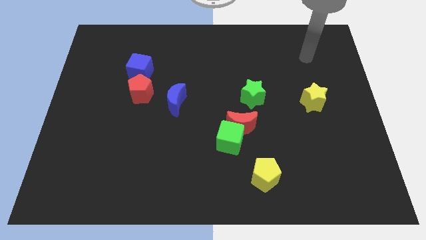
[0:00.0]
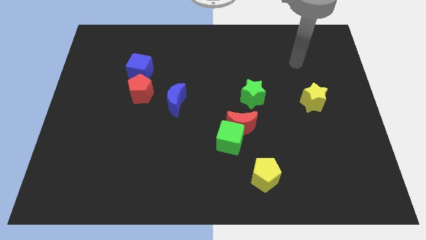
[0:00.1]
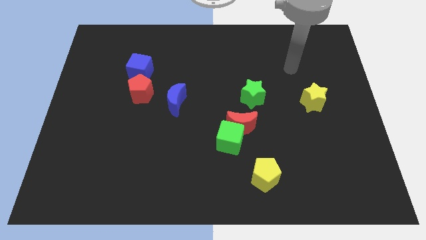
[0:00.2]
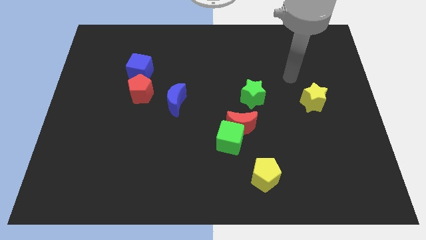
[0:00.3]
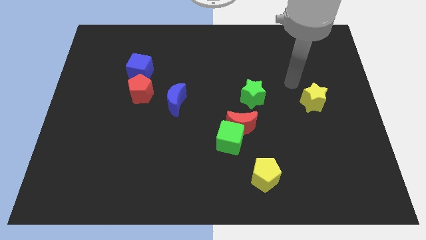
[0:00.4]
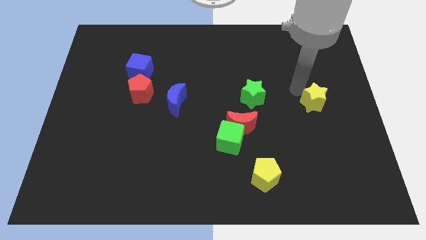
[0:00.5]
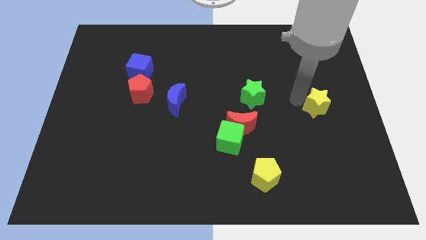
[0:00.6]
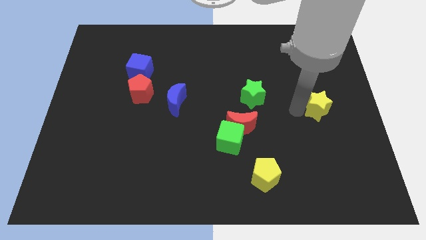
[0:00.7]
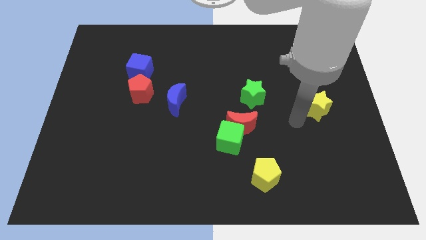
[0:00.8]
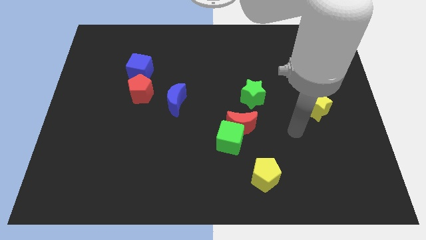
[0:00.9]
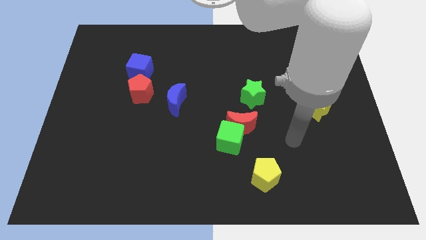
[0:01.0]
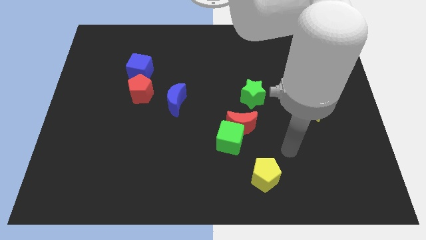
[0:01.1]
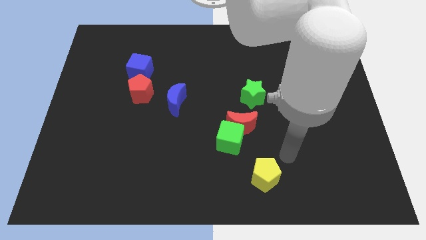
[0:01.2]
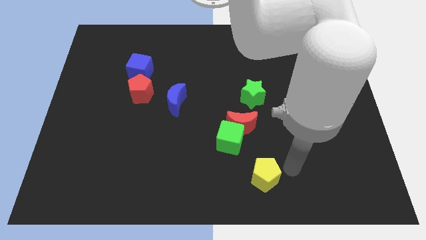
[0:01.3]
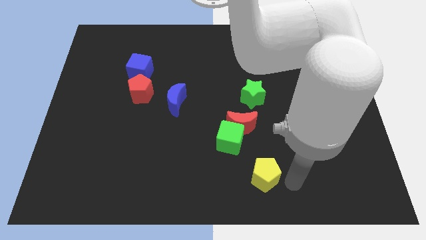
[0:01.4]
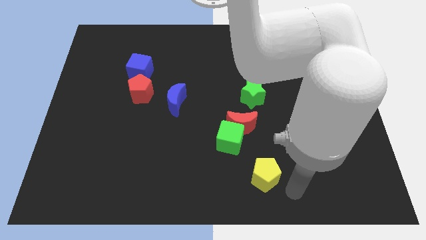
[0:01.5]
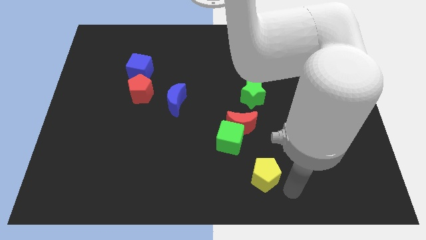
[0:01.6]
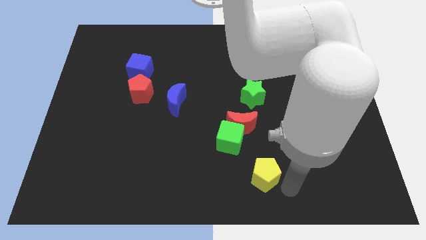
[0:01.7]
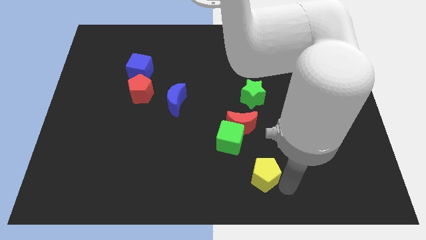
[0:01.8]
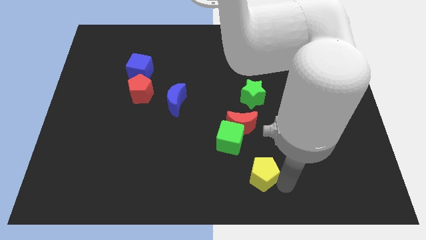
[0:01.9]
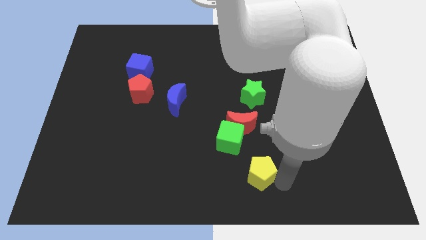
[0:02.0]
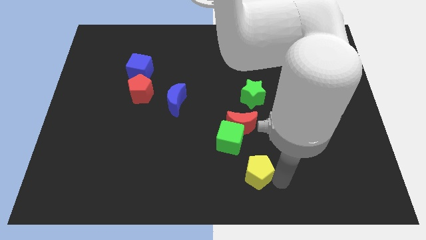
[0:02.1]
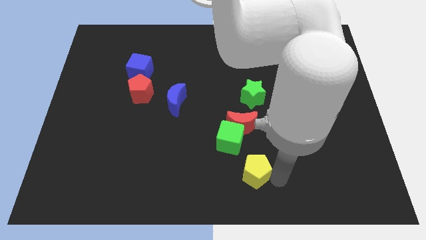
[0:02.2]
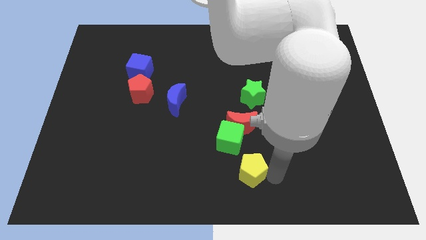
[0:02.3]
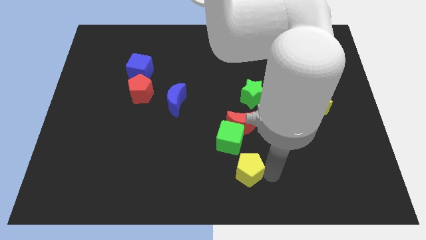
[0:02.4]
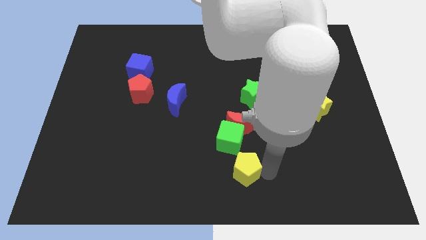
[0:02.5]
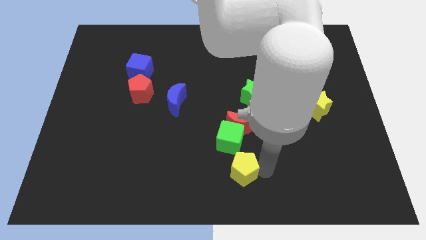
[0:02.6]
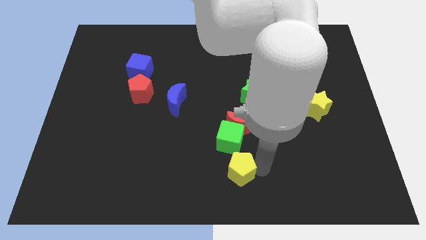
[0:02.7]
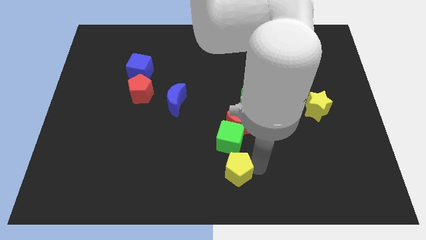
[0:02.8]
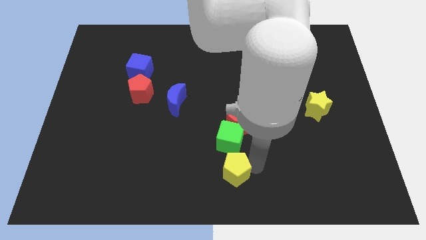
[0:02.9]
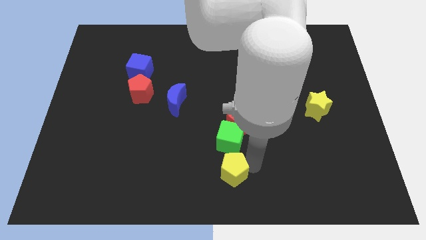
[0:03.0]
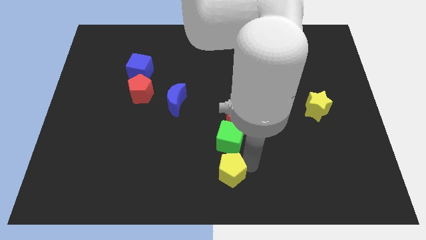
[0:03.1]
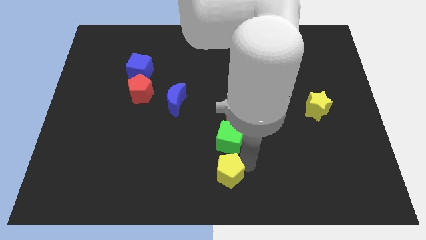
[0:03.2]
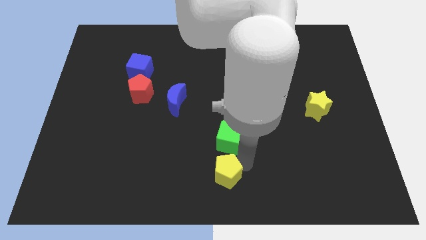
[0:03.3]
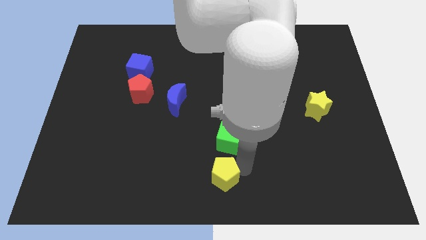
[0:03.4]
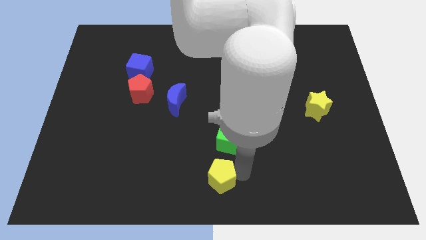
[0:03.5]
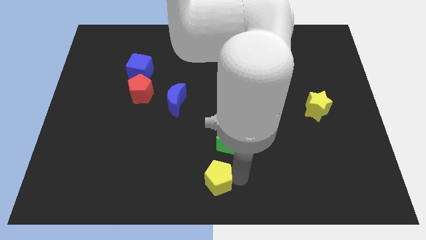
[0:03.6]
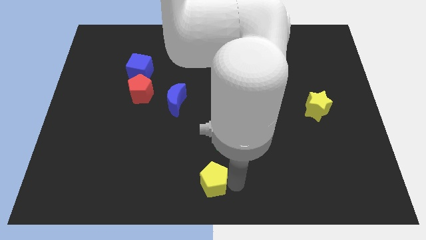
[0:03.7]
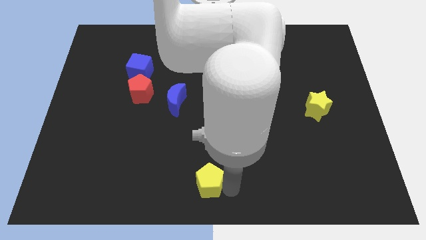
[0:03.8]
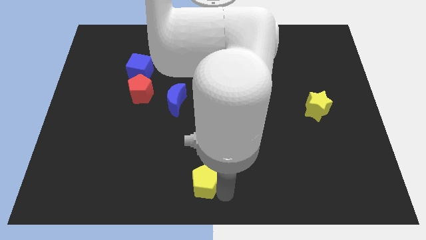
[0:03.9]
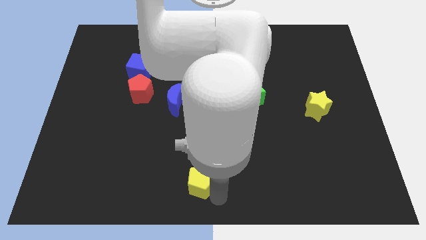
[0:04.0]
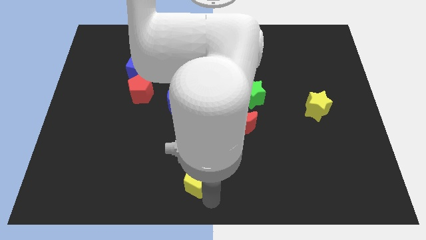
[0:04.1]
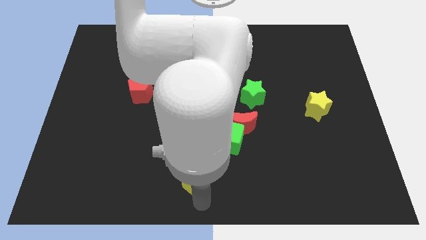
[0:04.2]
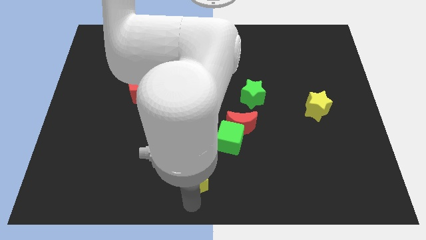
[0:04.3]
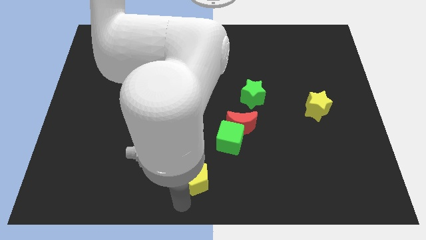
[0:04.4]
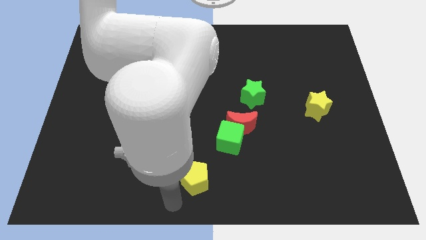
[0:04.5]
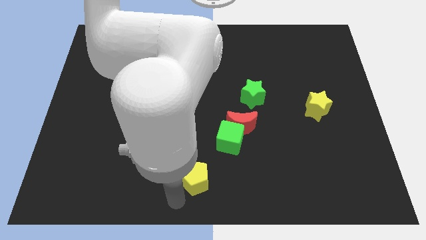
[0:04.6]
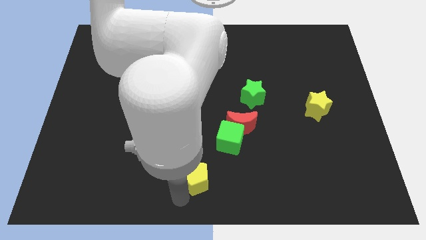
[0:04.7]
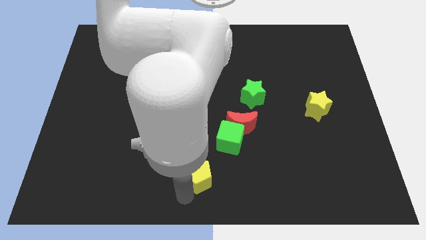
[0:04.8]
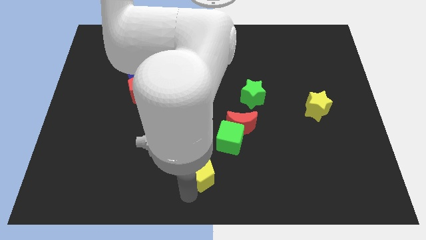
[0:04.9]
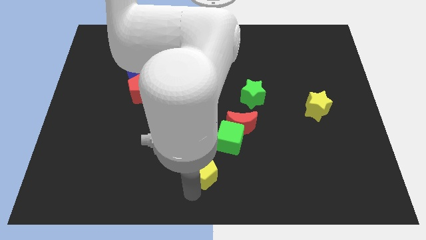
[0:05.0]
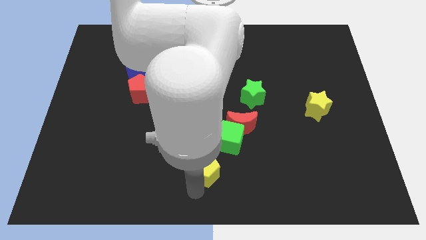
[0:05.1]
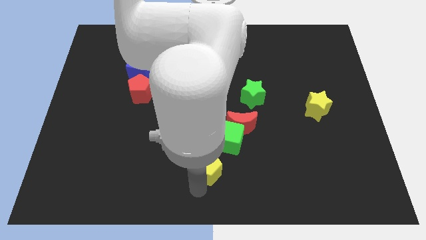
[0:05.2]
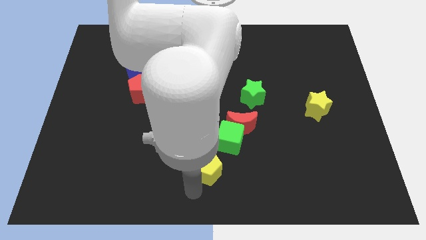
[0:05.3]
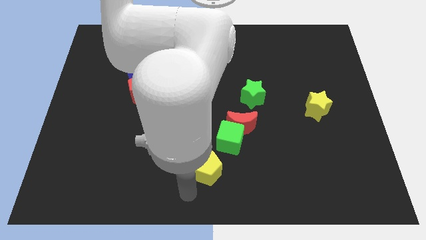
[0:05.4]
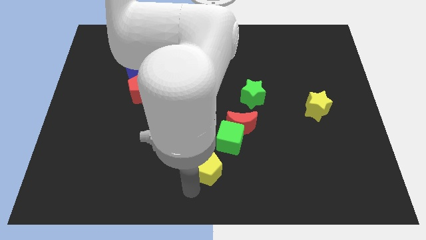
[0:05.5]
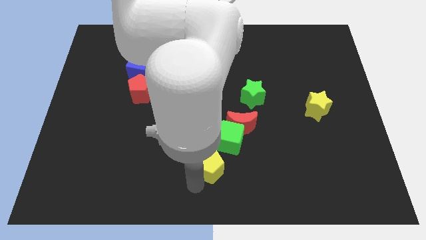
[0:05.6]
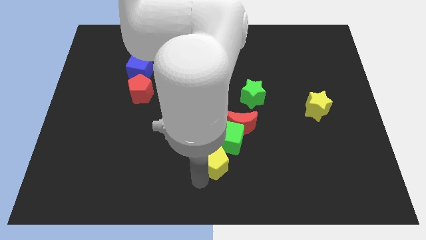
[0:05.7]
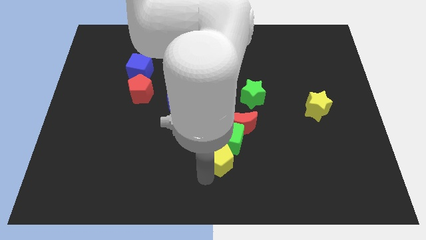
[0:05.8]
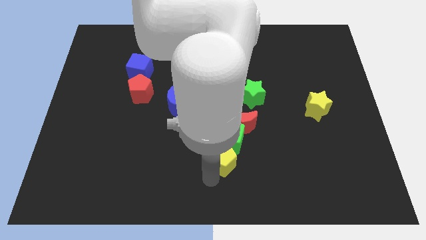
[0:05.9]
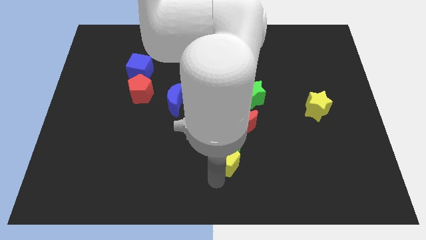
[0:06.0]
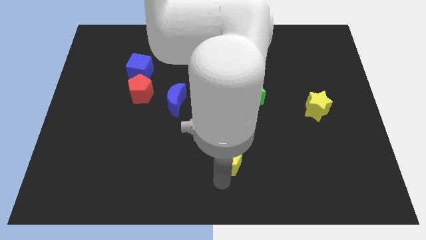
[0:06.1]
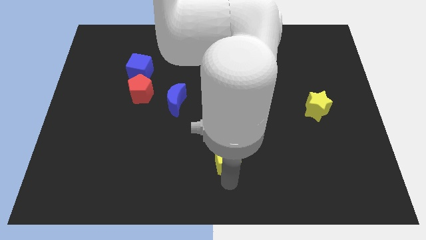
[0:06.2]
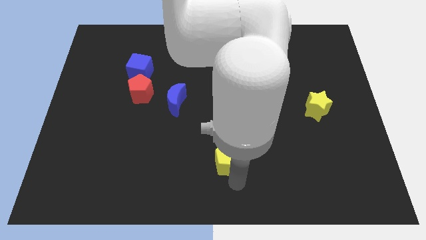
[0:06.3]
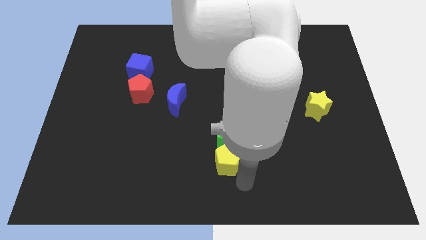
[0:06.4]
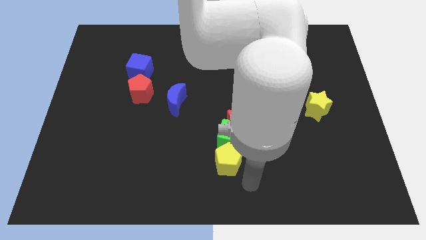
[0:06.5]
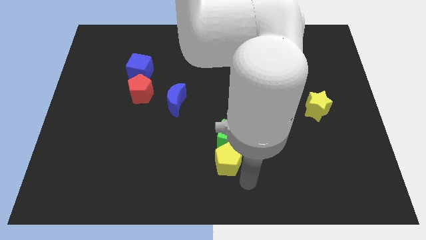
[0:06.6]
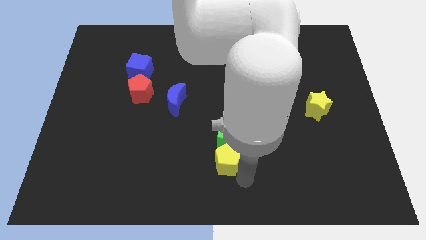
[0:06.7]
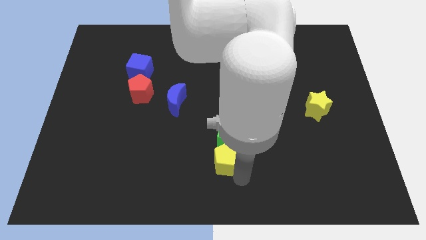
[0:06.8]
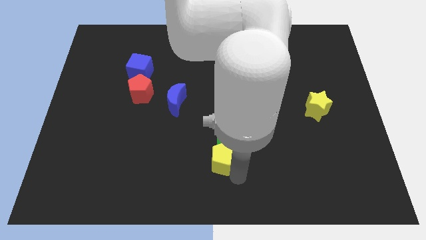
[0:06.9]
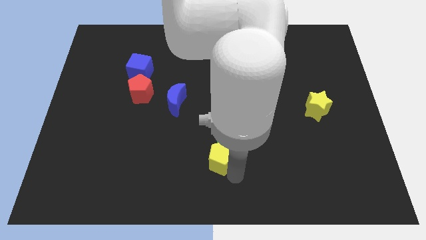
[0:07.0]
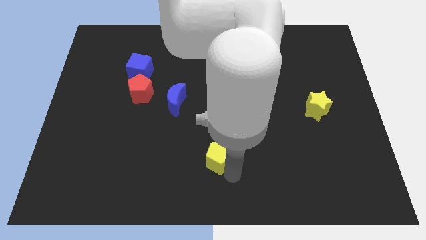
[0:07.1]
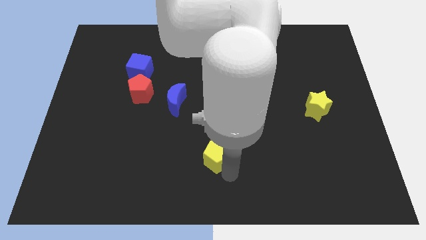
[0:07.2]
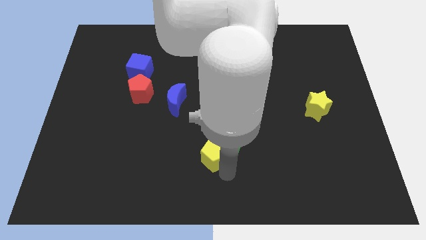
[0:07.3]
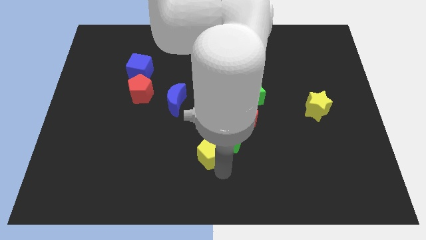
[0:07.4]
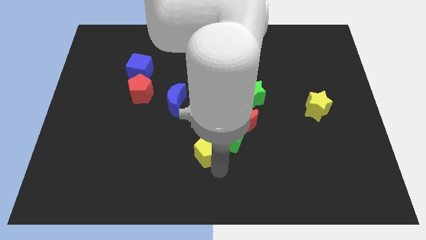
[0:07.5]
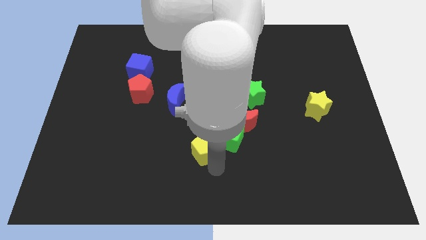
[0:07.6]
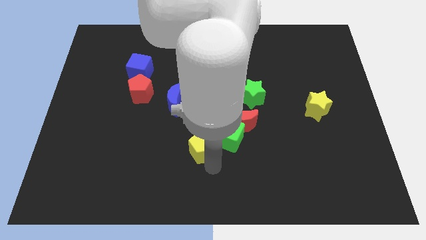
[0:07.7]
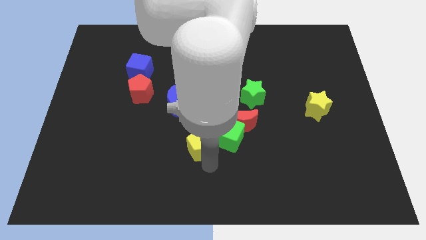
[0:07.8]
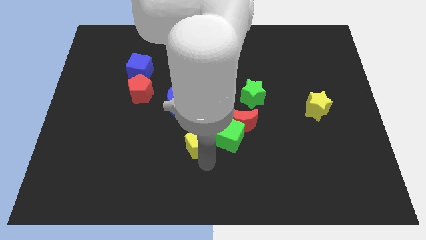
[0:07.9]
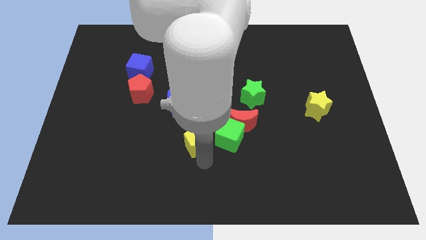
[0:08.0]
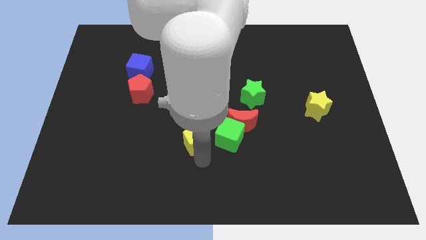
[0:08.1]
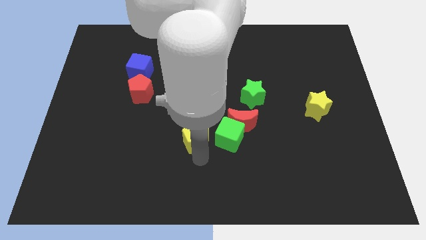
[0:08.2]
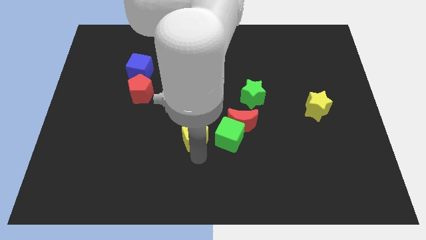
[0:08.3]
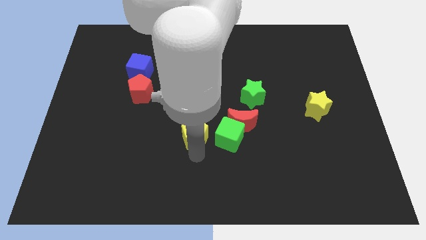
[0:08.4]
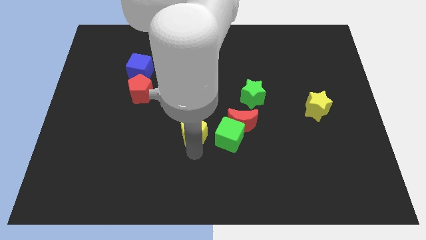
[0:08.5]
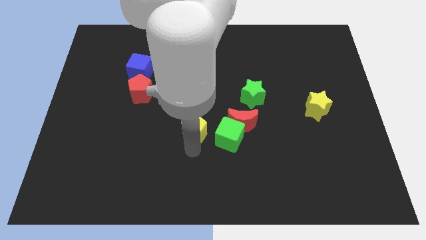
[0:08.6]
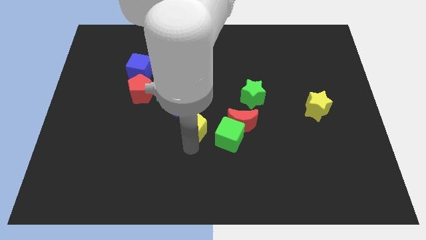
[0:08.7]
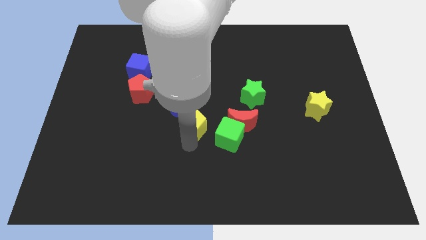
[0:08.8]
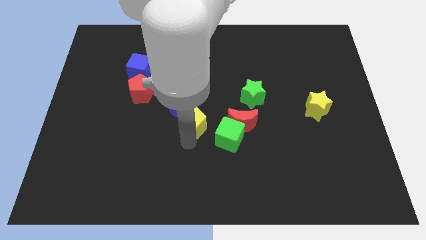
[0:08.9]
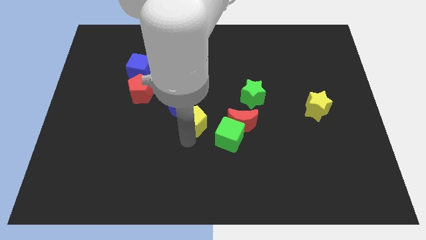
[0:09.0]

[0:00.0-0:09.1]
push the yellow pentagon upwards and to the left
